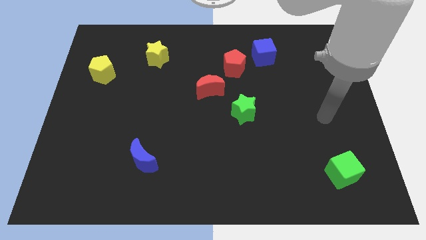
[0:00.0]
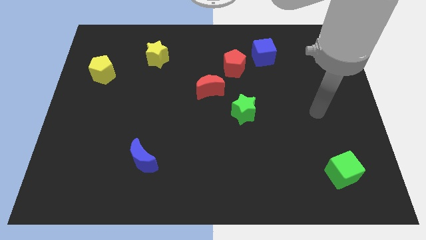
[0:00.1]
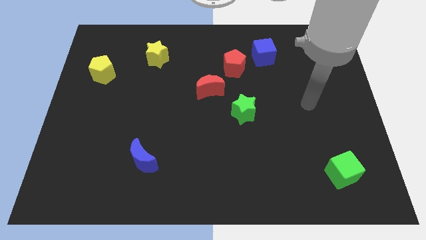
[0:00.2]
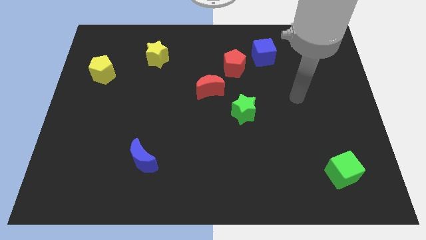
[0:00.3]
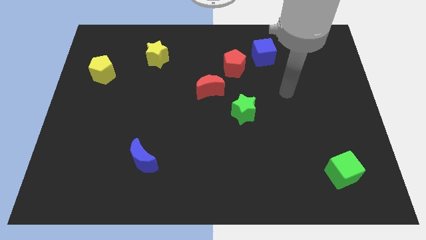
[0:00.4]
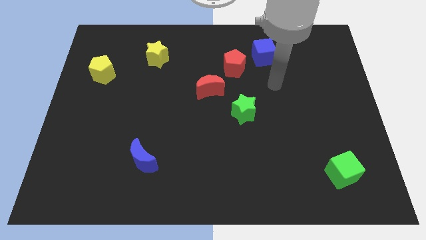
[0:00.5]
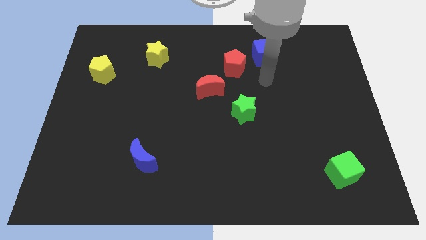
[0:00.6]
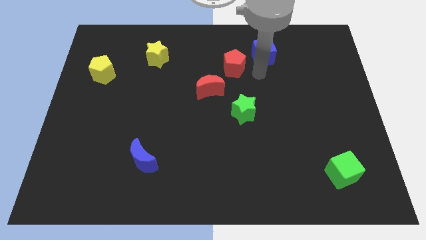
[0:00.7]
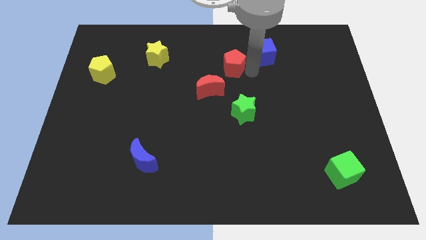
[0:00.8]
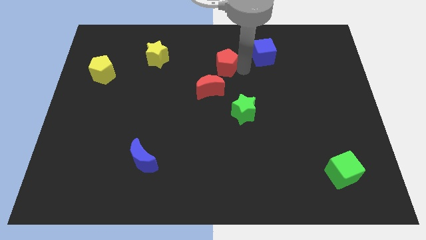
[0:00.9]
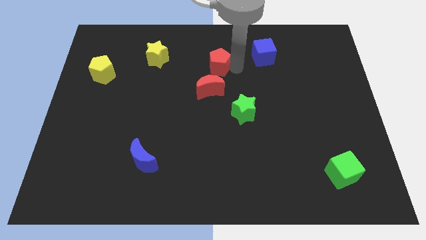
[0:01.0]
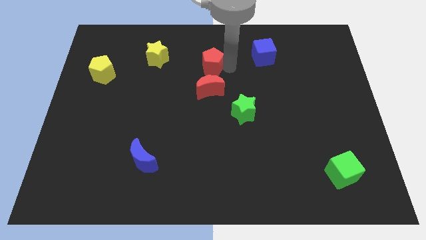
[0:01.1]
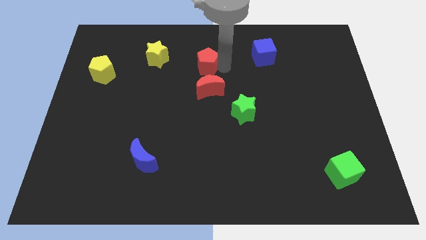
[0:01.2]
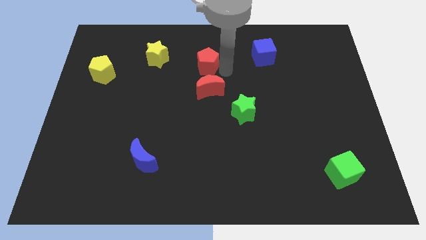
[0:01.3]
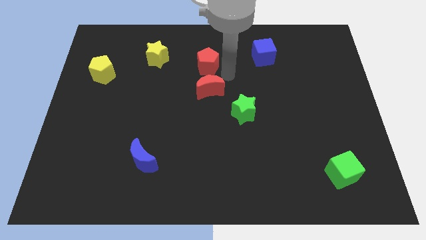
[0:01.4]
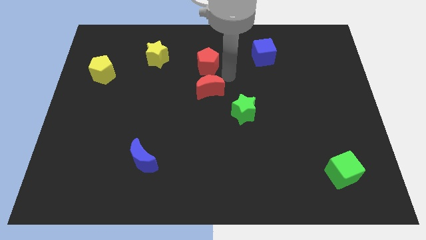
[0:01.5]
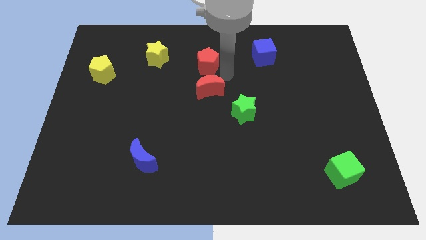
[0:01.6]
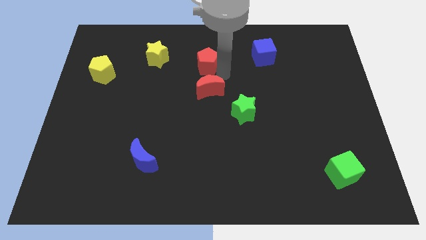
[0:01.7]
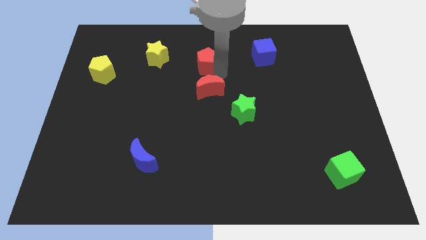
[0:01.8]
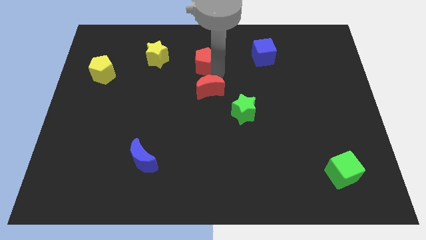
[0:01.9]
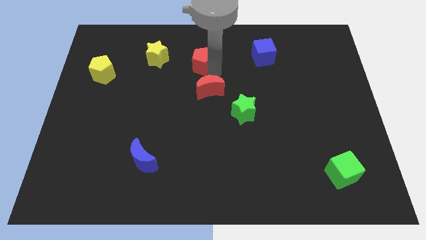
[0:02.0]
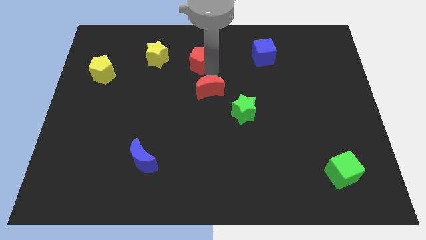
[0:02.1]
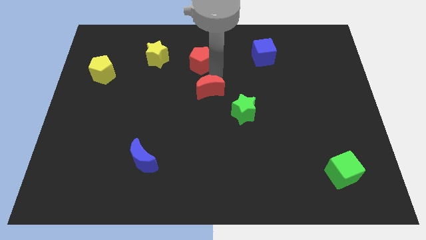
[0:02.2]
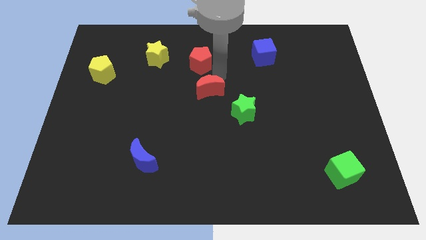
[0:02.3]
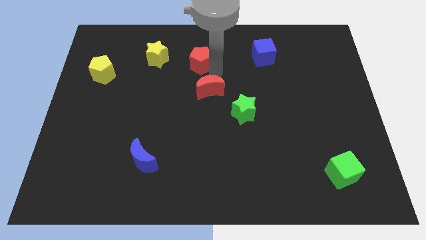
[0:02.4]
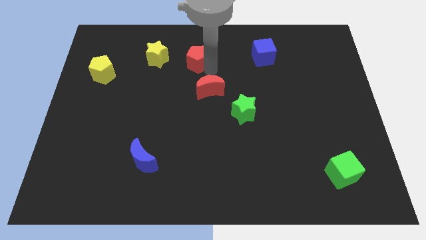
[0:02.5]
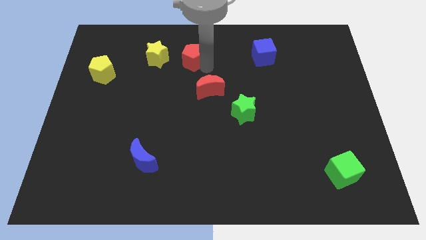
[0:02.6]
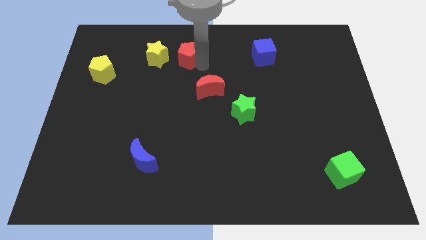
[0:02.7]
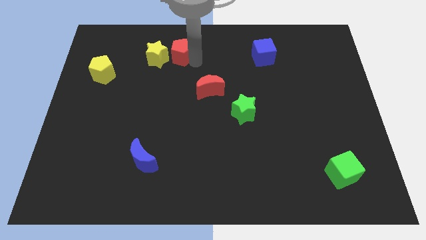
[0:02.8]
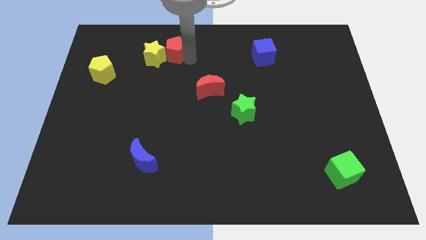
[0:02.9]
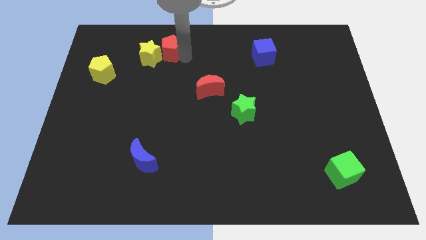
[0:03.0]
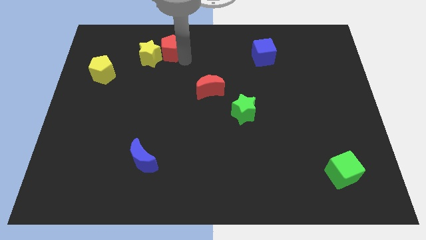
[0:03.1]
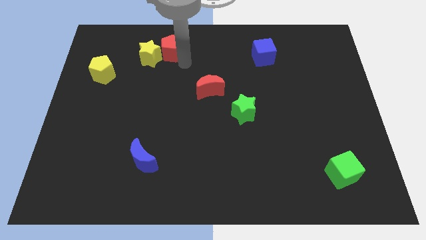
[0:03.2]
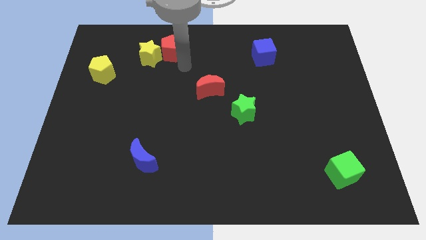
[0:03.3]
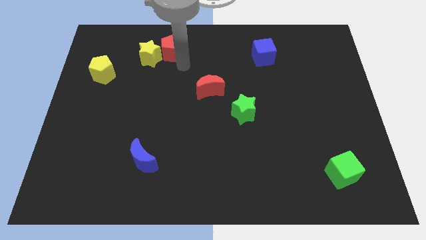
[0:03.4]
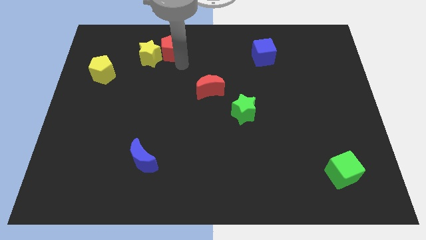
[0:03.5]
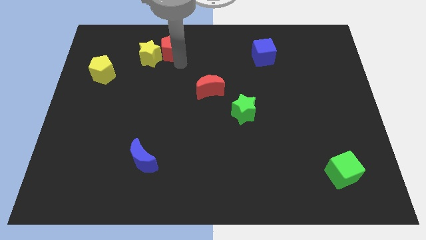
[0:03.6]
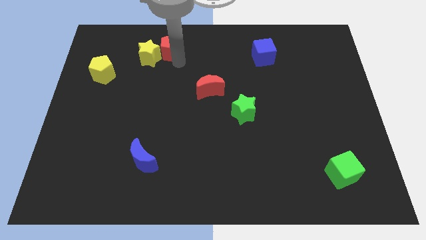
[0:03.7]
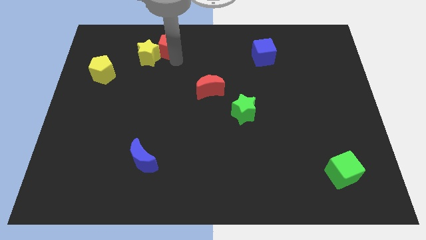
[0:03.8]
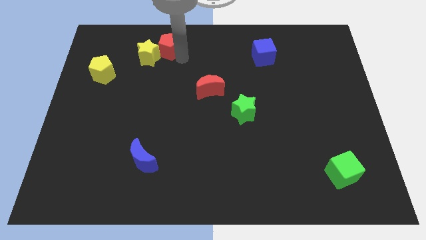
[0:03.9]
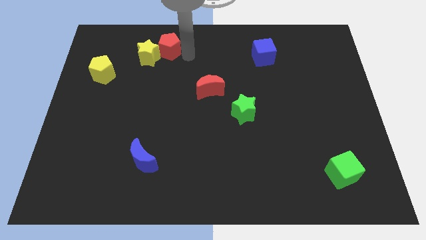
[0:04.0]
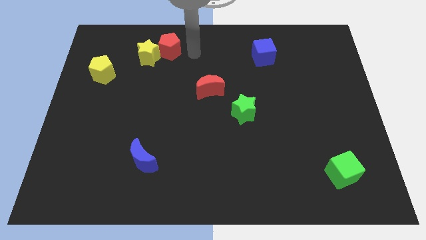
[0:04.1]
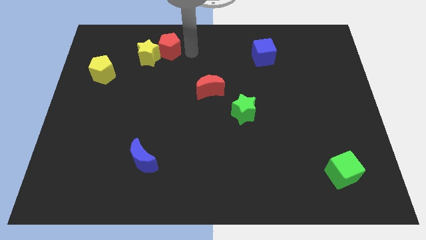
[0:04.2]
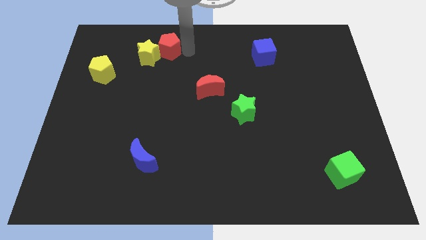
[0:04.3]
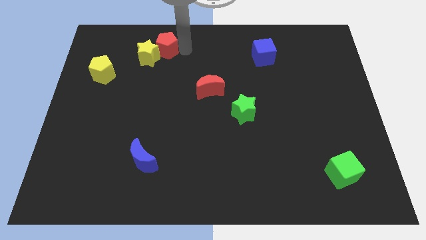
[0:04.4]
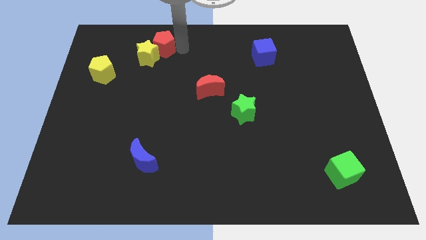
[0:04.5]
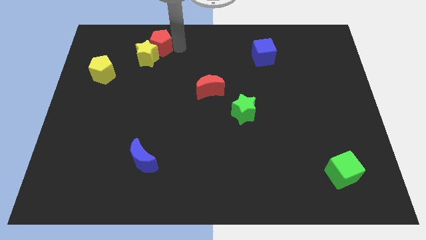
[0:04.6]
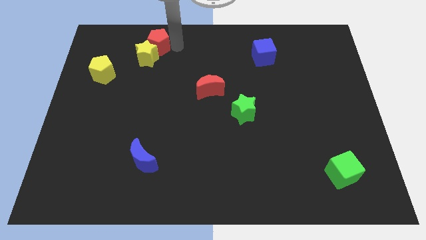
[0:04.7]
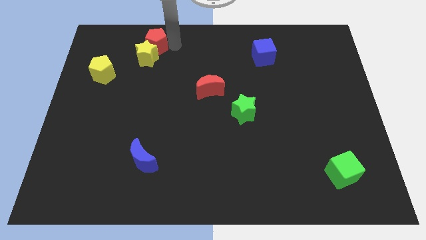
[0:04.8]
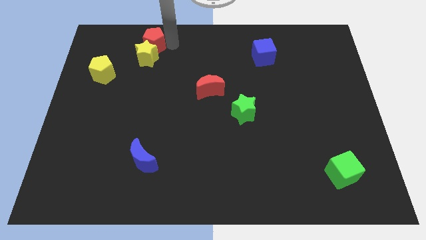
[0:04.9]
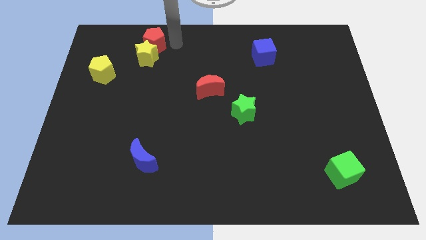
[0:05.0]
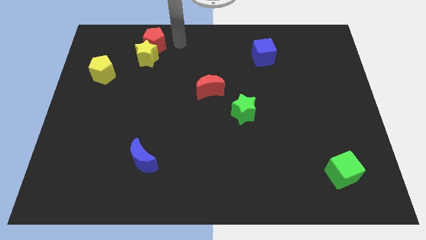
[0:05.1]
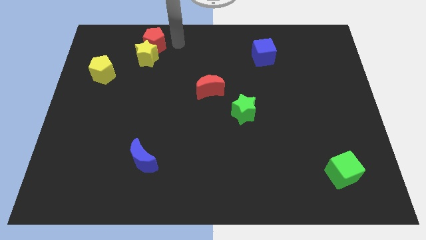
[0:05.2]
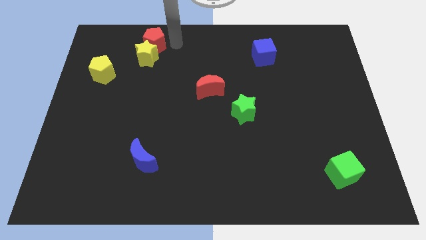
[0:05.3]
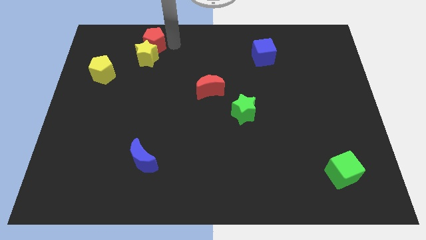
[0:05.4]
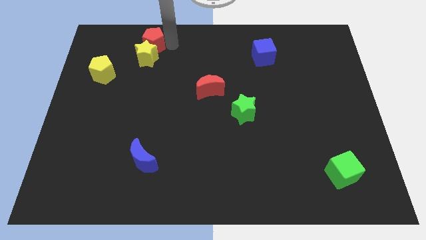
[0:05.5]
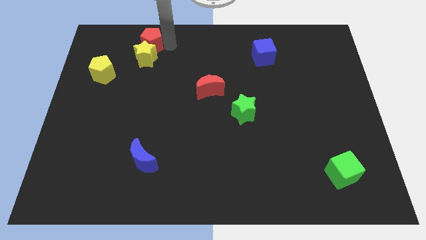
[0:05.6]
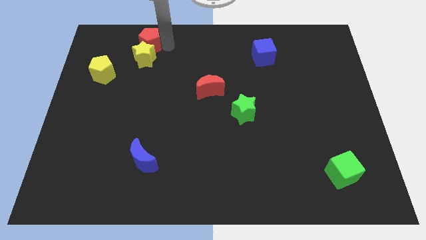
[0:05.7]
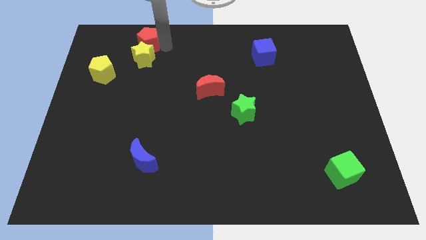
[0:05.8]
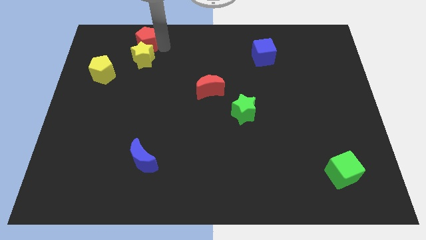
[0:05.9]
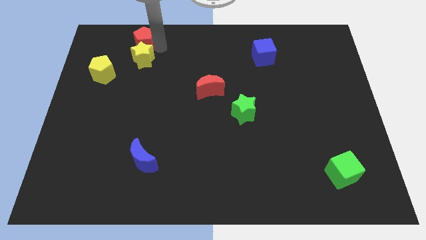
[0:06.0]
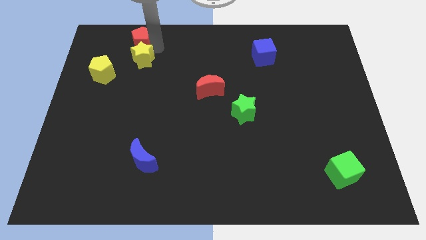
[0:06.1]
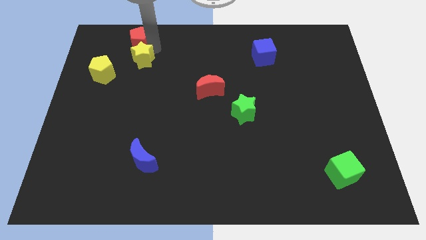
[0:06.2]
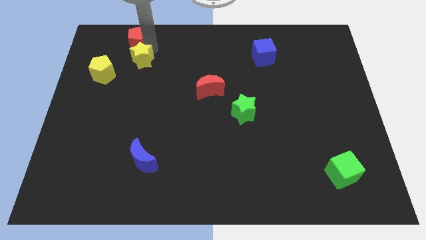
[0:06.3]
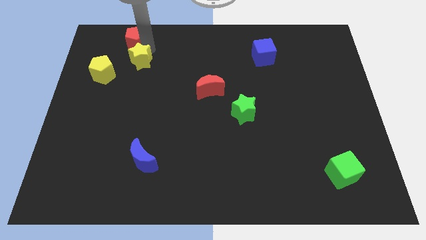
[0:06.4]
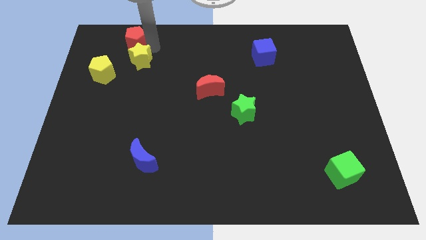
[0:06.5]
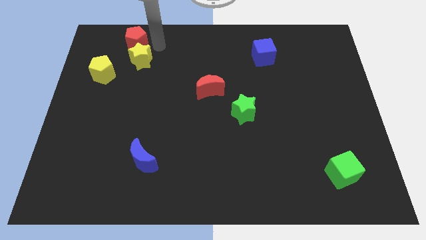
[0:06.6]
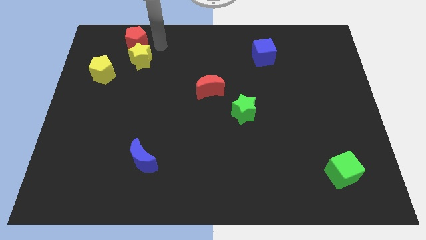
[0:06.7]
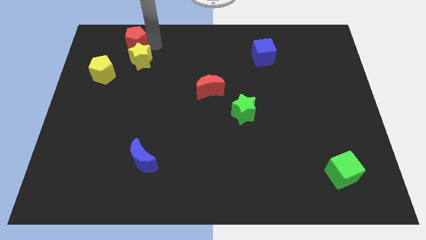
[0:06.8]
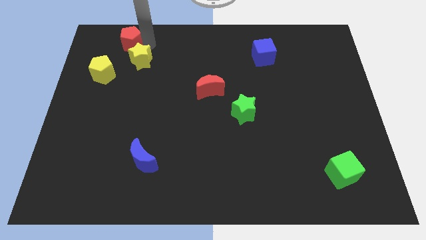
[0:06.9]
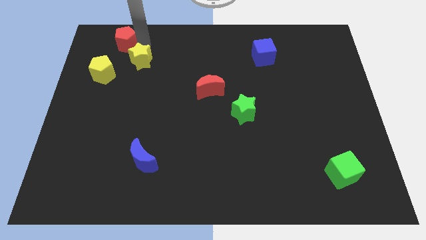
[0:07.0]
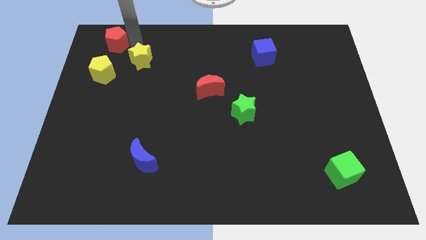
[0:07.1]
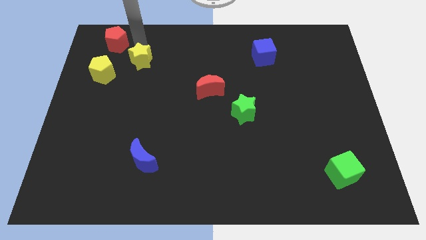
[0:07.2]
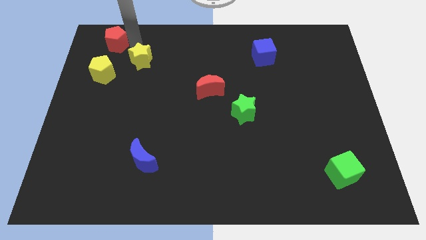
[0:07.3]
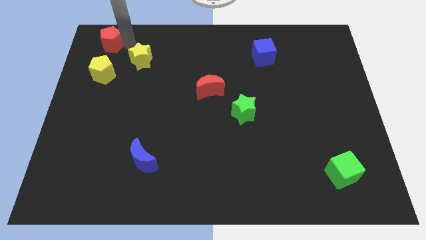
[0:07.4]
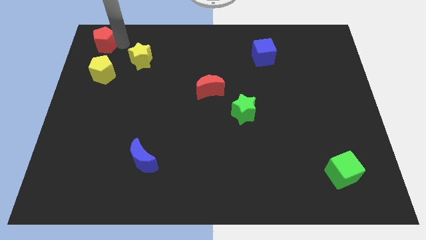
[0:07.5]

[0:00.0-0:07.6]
slide the red pentagon to the top left
